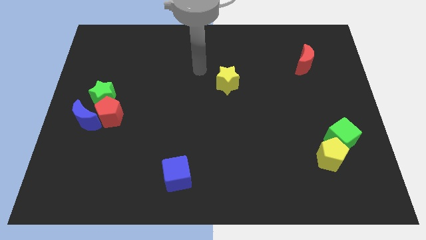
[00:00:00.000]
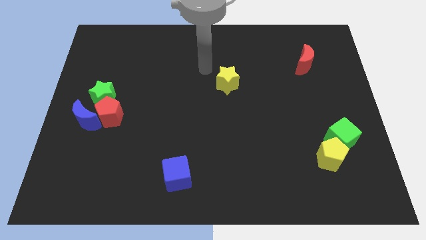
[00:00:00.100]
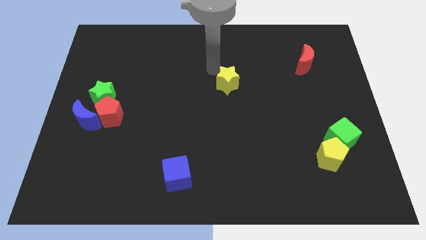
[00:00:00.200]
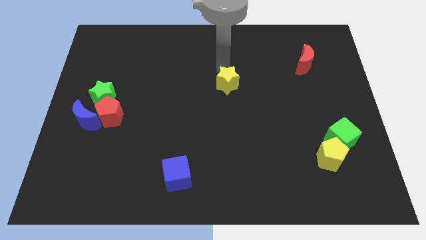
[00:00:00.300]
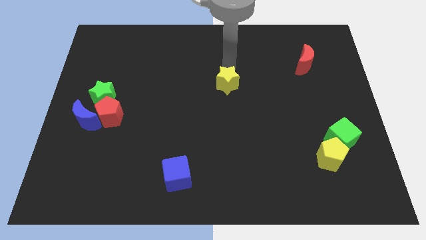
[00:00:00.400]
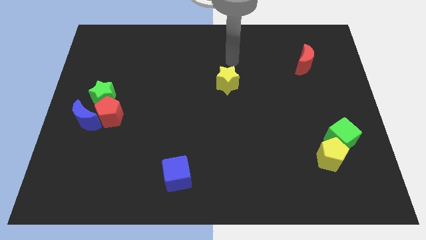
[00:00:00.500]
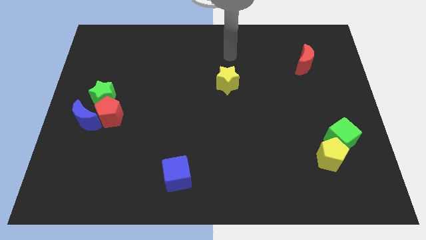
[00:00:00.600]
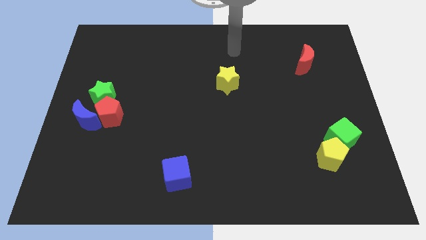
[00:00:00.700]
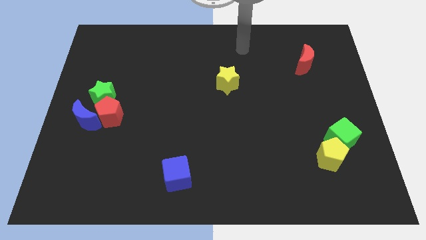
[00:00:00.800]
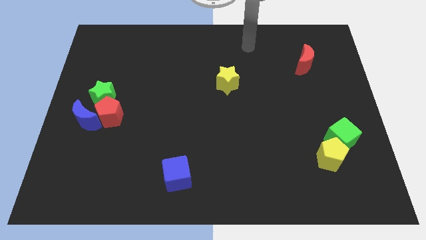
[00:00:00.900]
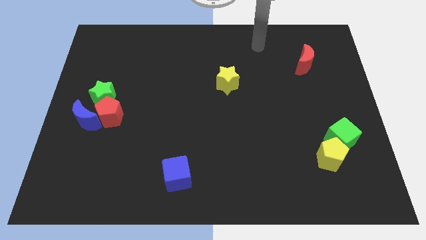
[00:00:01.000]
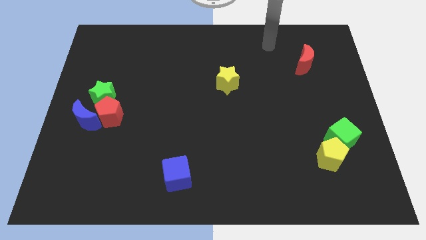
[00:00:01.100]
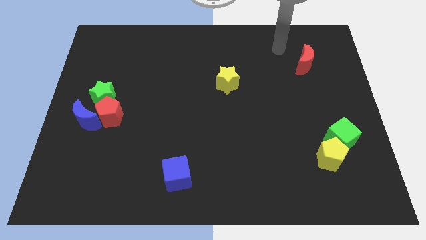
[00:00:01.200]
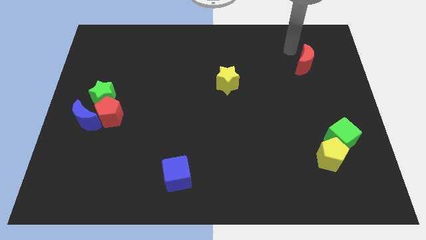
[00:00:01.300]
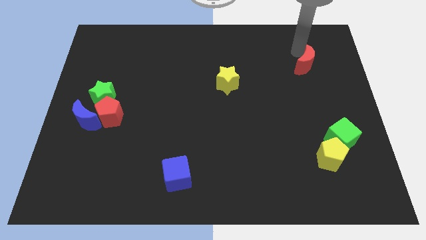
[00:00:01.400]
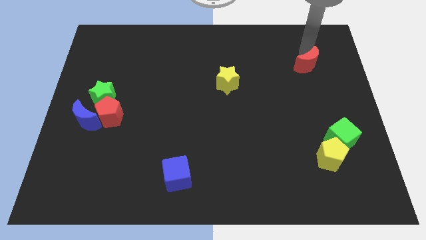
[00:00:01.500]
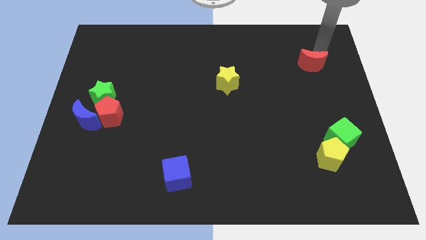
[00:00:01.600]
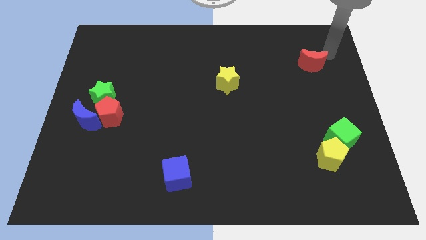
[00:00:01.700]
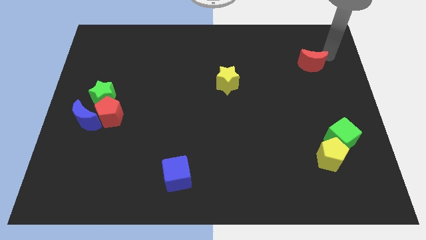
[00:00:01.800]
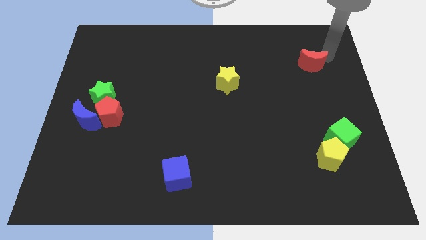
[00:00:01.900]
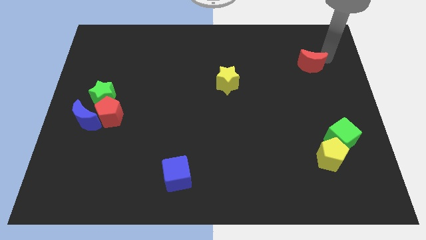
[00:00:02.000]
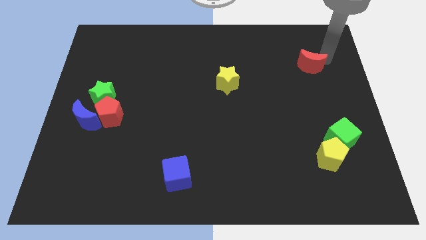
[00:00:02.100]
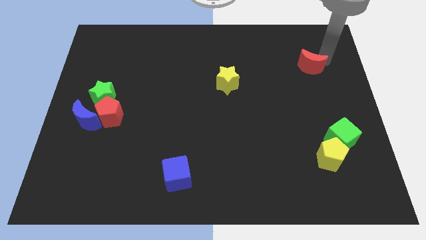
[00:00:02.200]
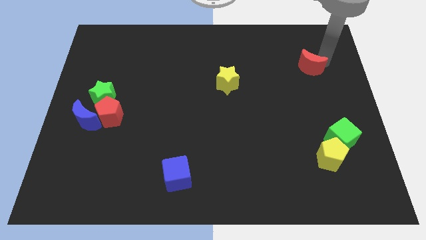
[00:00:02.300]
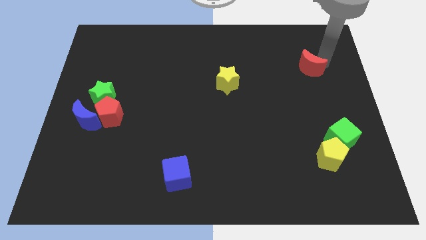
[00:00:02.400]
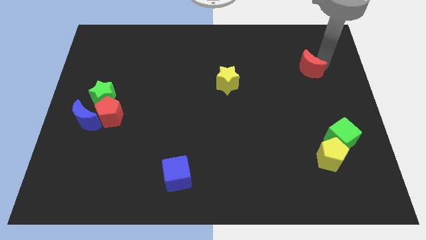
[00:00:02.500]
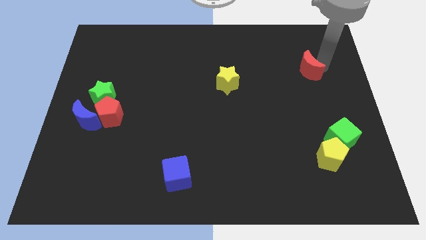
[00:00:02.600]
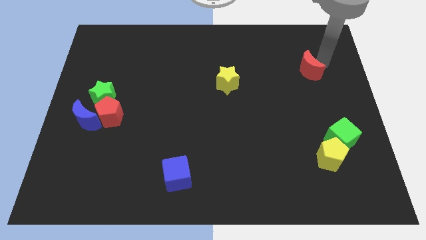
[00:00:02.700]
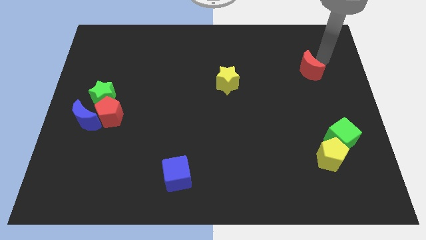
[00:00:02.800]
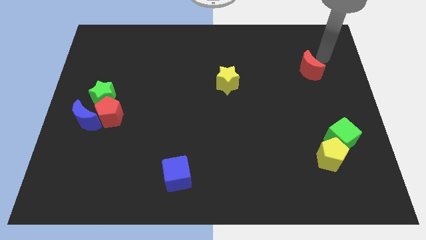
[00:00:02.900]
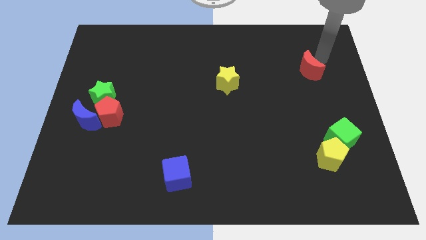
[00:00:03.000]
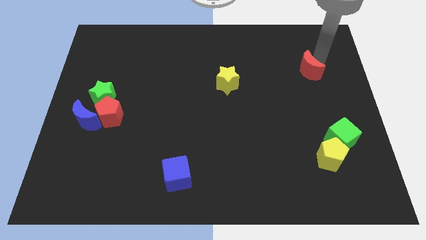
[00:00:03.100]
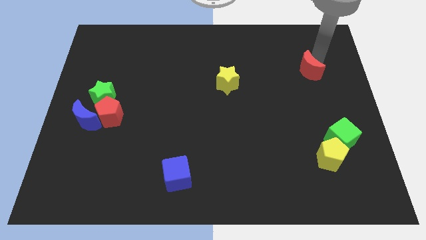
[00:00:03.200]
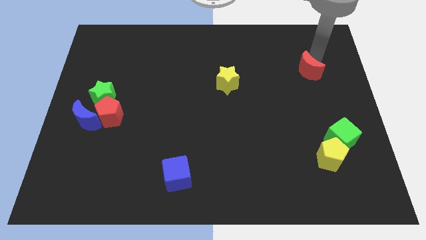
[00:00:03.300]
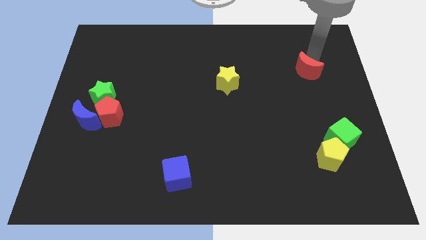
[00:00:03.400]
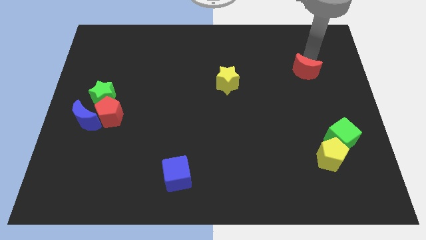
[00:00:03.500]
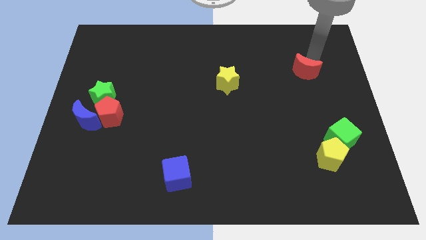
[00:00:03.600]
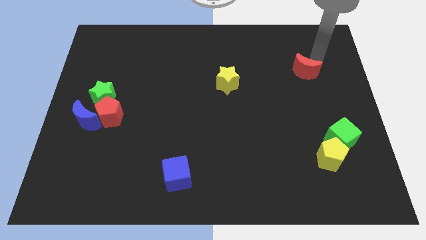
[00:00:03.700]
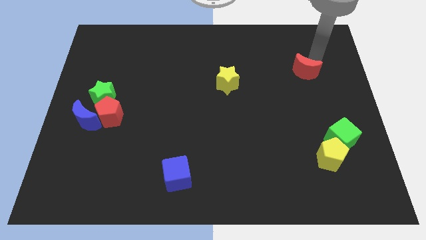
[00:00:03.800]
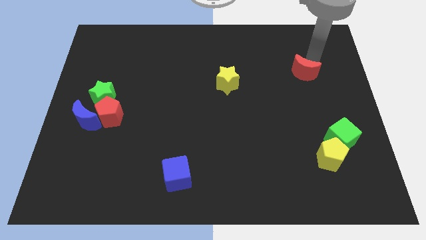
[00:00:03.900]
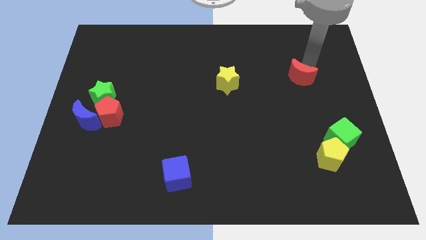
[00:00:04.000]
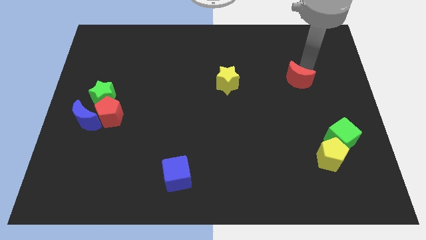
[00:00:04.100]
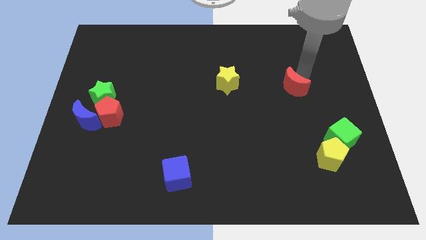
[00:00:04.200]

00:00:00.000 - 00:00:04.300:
slide the red moon somewhat down and left

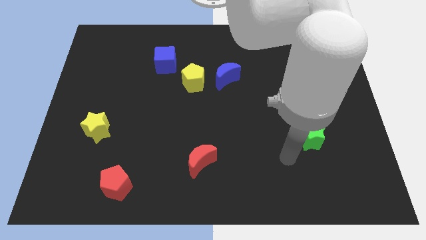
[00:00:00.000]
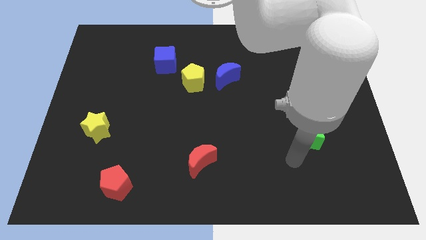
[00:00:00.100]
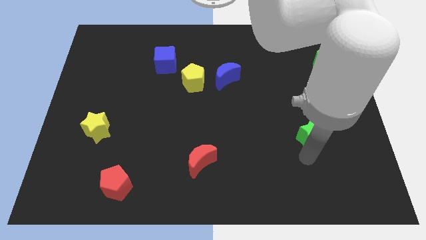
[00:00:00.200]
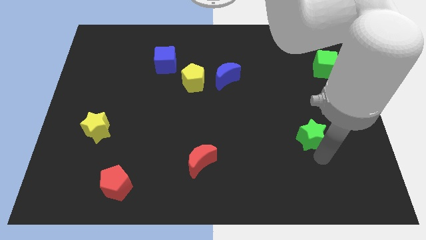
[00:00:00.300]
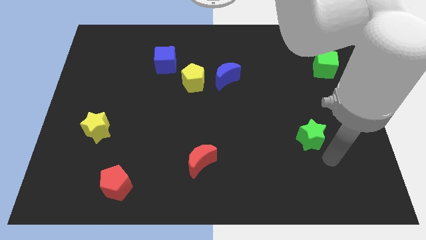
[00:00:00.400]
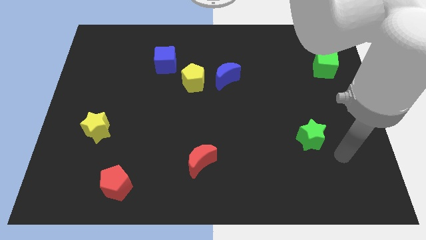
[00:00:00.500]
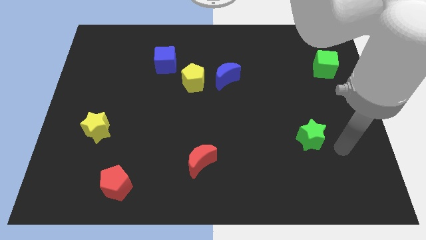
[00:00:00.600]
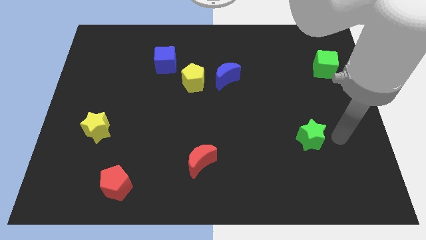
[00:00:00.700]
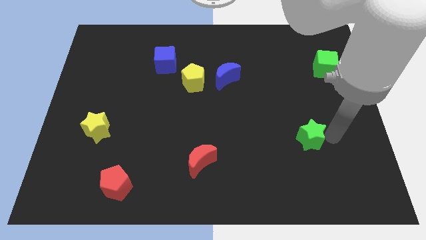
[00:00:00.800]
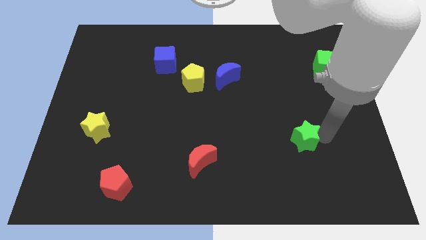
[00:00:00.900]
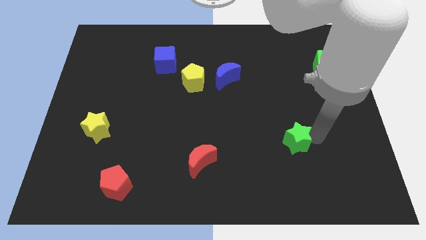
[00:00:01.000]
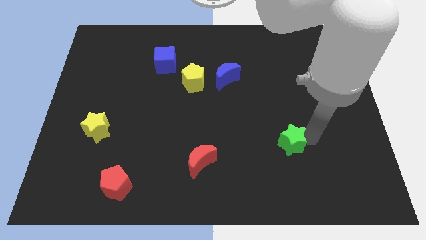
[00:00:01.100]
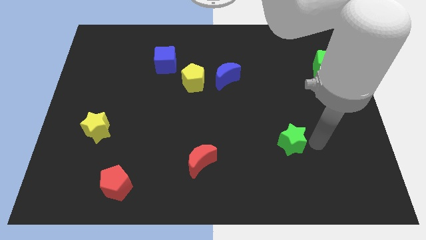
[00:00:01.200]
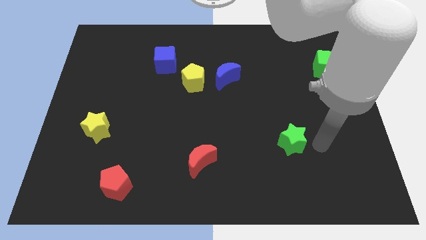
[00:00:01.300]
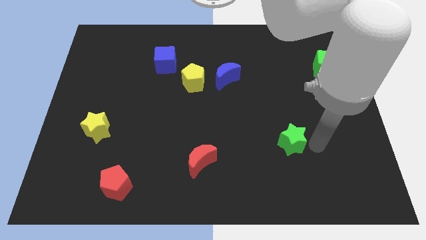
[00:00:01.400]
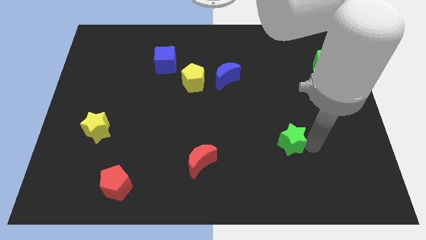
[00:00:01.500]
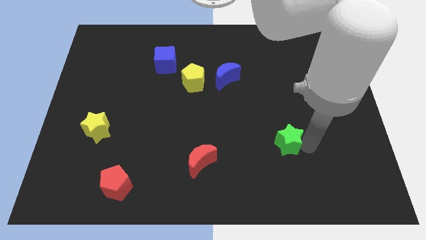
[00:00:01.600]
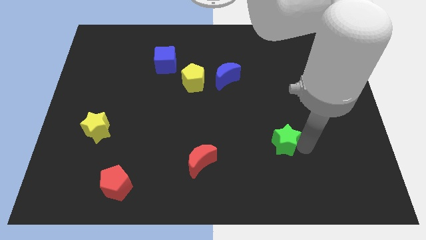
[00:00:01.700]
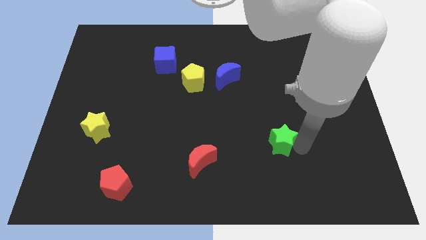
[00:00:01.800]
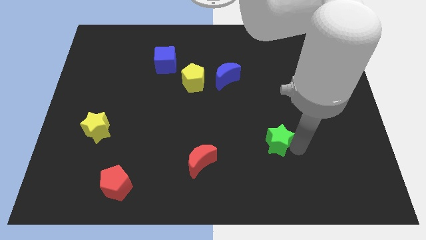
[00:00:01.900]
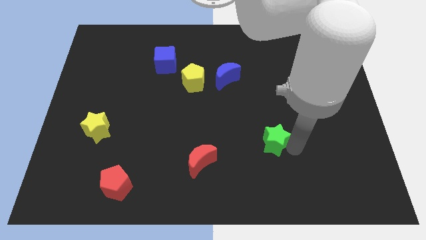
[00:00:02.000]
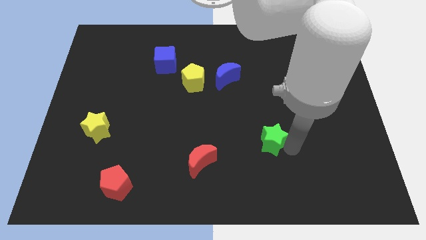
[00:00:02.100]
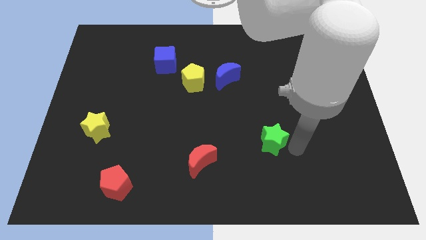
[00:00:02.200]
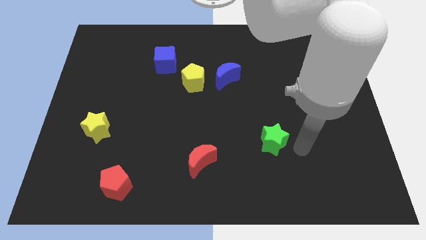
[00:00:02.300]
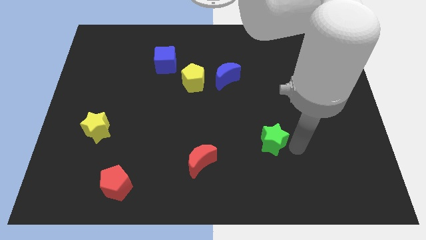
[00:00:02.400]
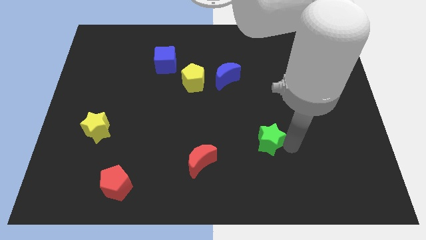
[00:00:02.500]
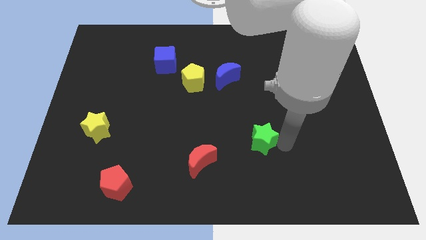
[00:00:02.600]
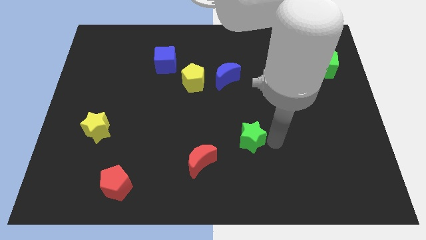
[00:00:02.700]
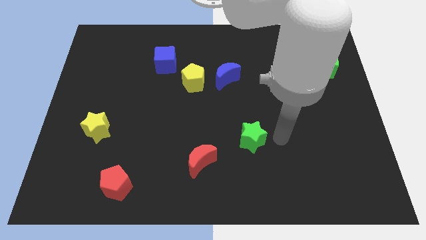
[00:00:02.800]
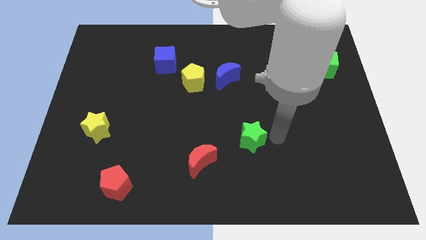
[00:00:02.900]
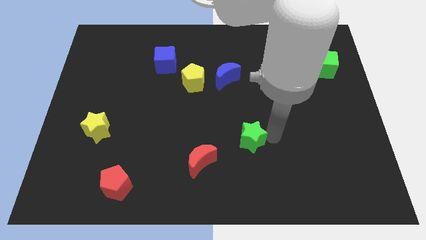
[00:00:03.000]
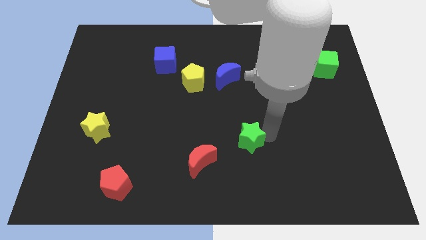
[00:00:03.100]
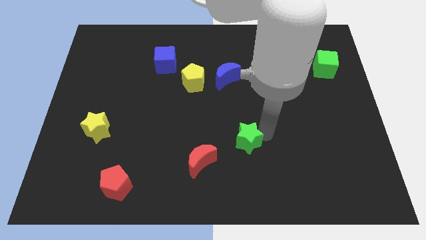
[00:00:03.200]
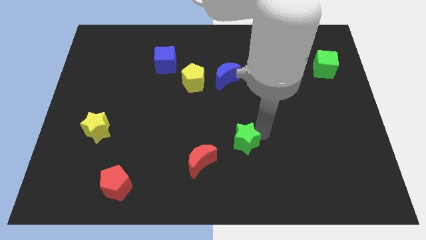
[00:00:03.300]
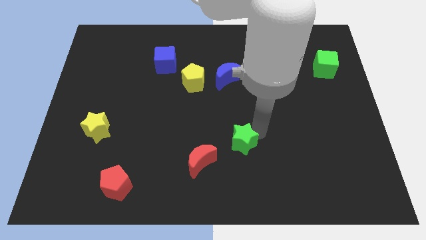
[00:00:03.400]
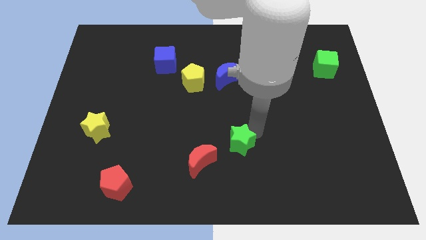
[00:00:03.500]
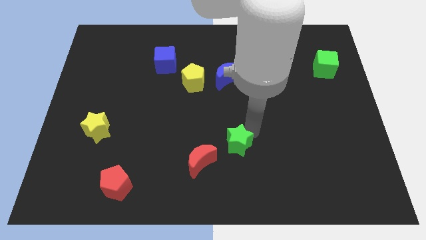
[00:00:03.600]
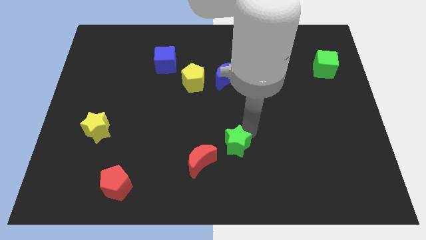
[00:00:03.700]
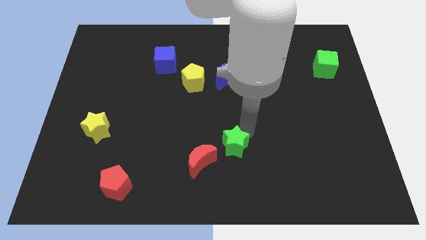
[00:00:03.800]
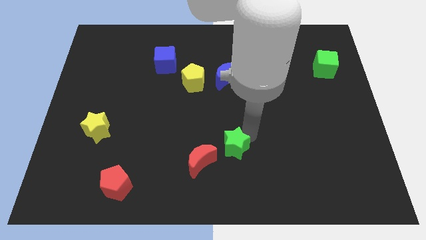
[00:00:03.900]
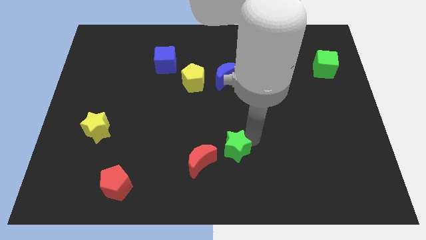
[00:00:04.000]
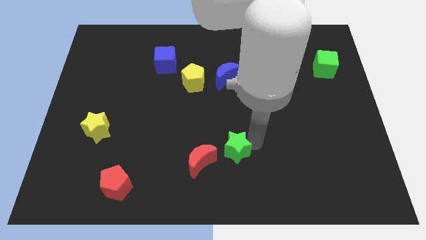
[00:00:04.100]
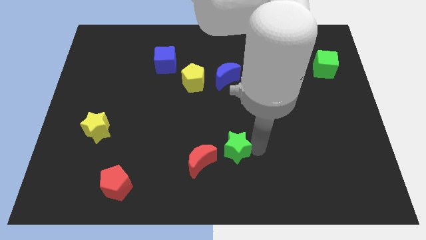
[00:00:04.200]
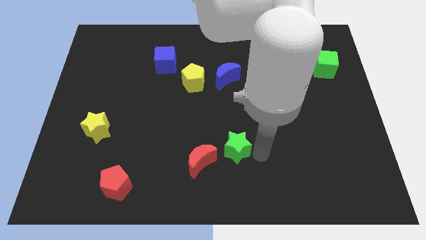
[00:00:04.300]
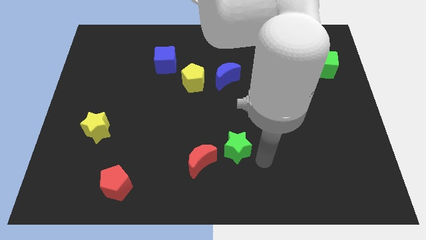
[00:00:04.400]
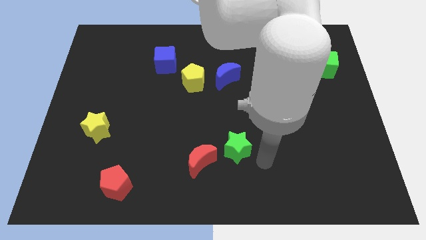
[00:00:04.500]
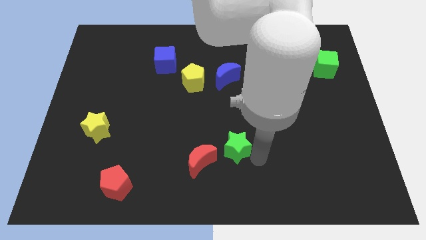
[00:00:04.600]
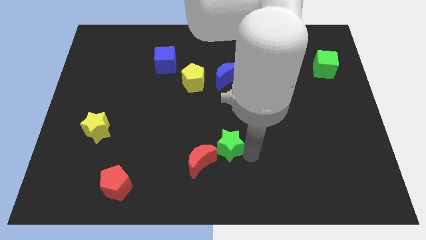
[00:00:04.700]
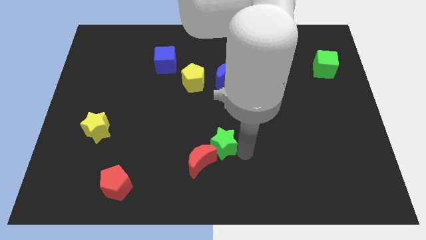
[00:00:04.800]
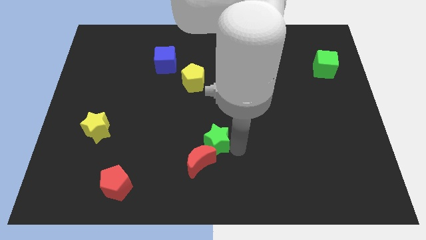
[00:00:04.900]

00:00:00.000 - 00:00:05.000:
slide the green star to the left
